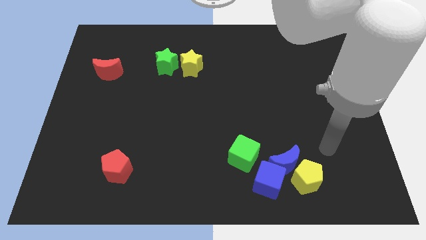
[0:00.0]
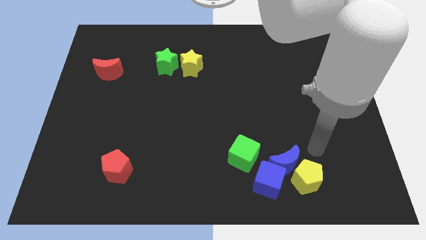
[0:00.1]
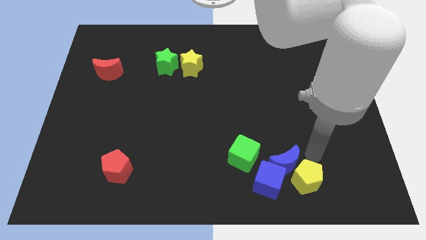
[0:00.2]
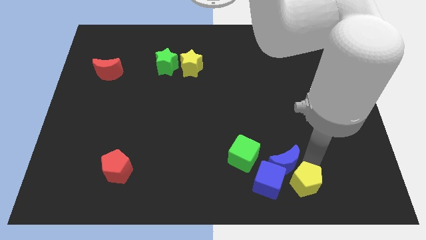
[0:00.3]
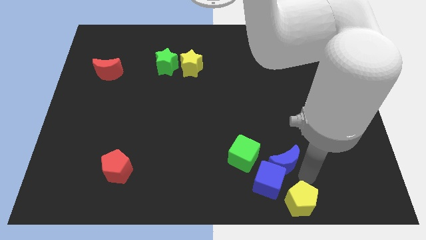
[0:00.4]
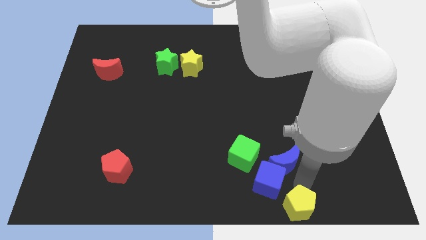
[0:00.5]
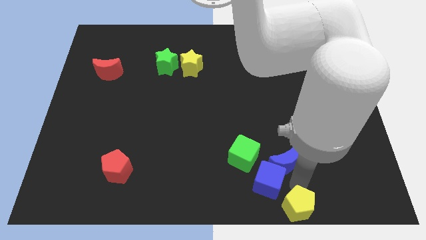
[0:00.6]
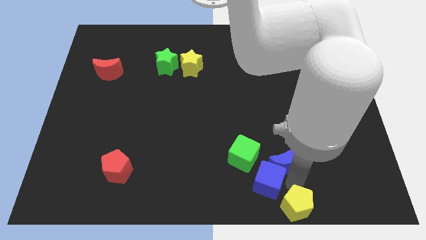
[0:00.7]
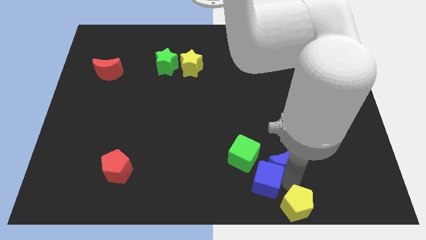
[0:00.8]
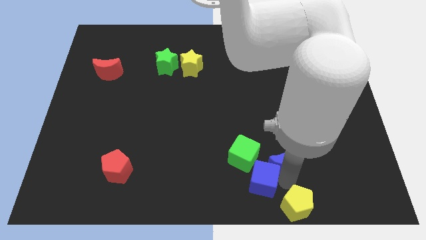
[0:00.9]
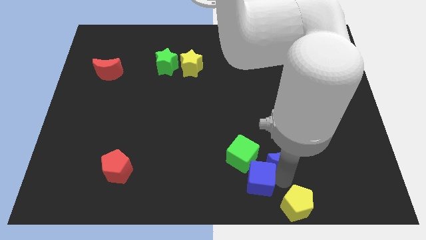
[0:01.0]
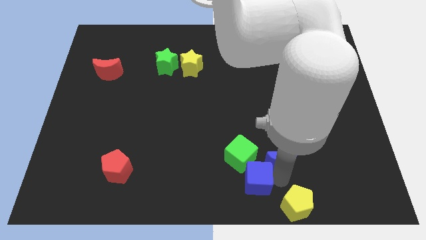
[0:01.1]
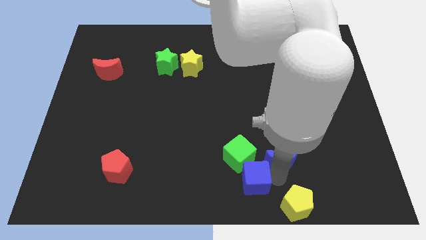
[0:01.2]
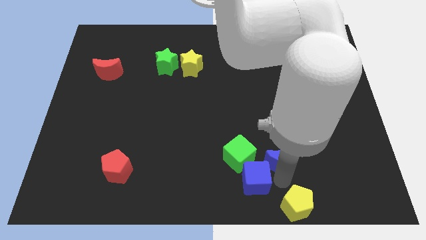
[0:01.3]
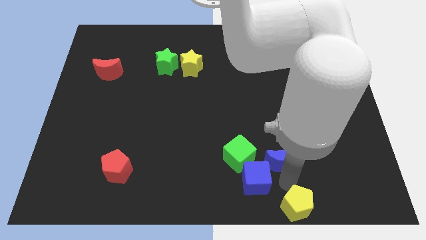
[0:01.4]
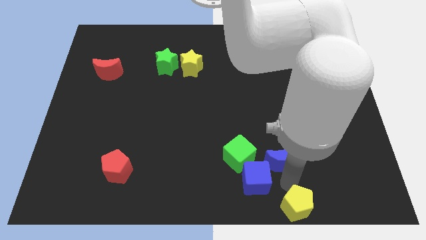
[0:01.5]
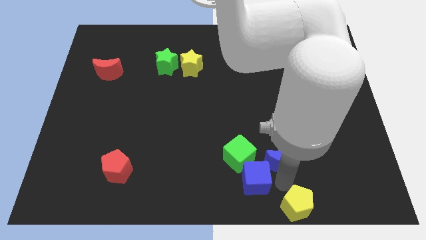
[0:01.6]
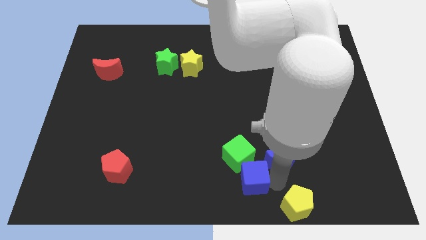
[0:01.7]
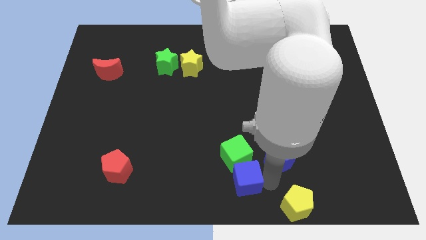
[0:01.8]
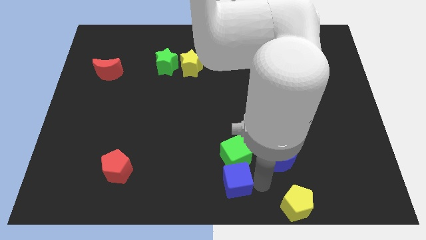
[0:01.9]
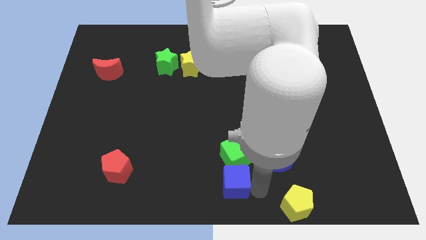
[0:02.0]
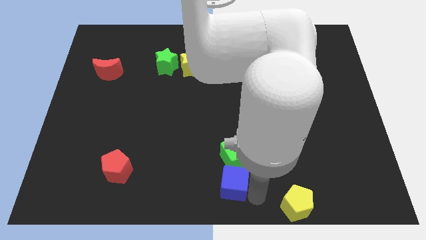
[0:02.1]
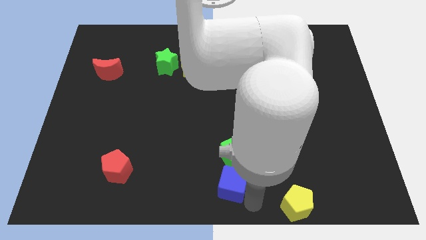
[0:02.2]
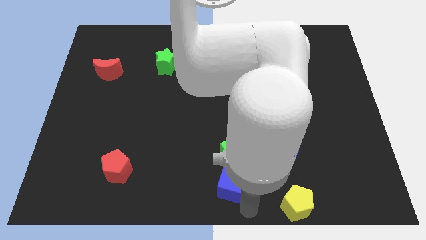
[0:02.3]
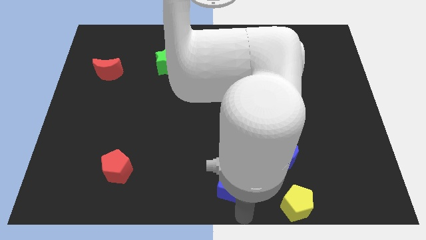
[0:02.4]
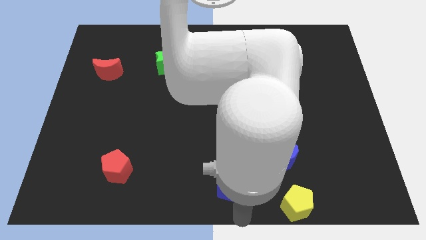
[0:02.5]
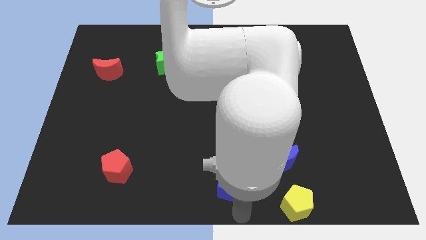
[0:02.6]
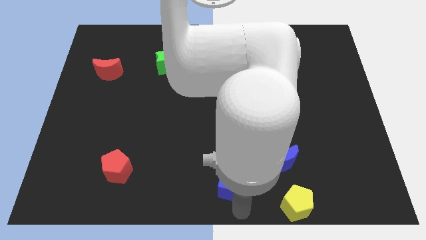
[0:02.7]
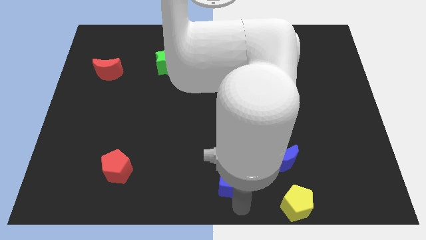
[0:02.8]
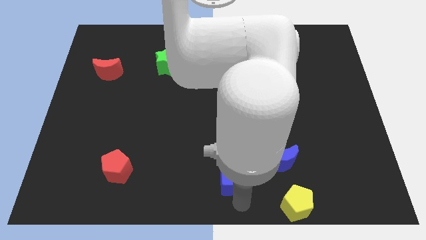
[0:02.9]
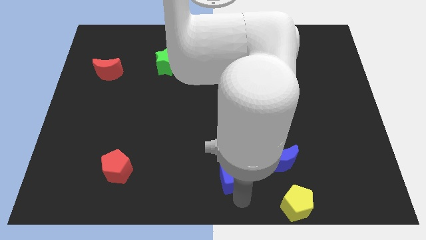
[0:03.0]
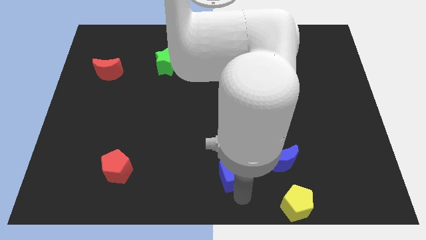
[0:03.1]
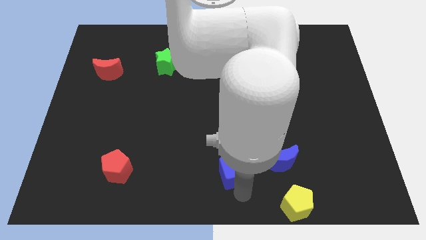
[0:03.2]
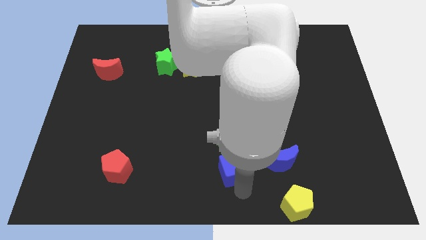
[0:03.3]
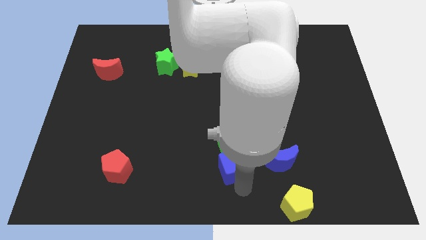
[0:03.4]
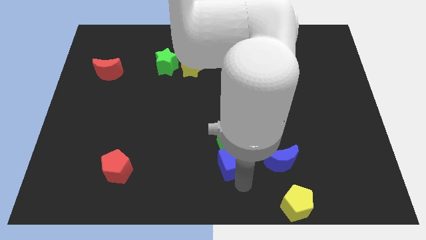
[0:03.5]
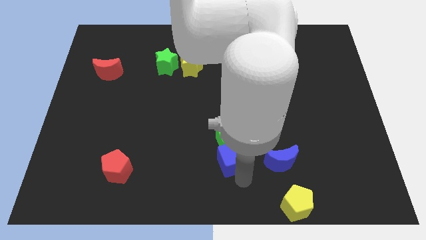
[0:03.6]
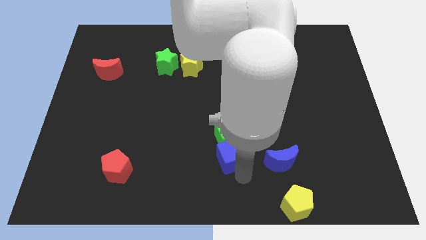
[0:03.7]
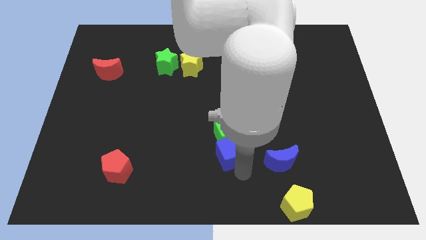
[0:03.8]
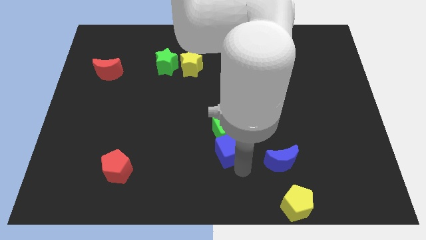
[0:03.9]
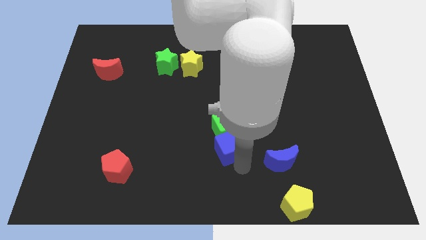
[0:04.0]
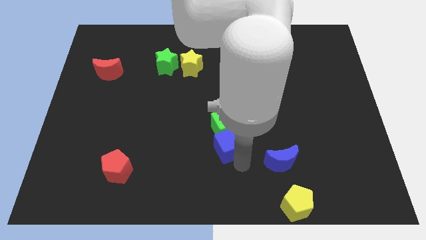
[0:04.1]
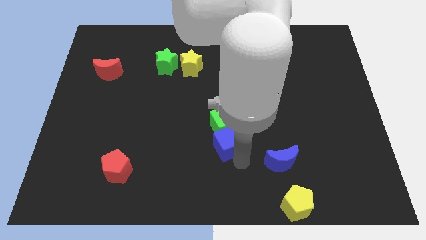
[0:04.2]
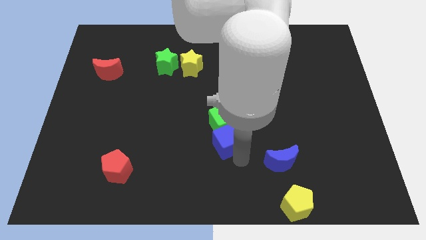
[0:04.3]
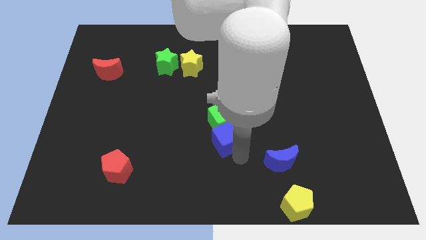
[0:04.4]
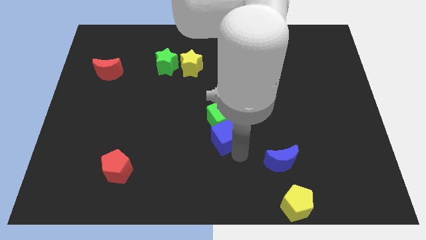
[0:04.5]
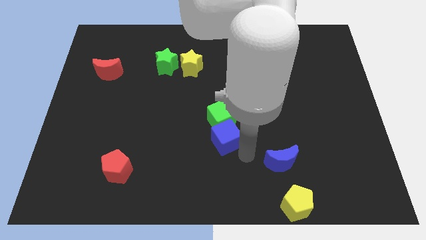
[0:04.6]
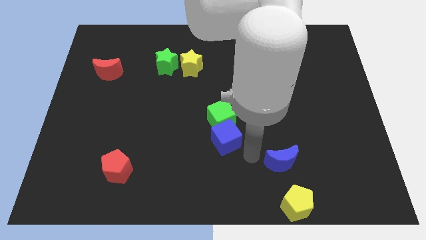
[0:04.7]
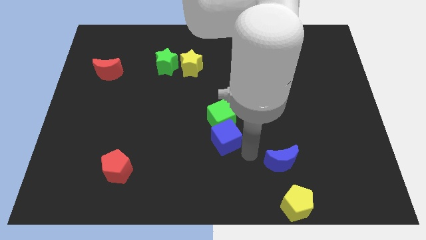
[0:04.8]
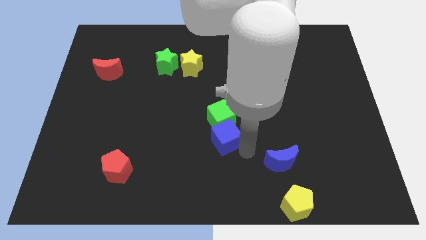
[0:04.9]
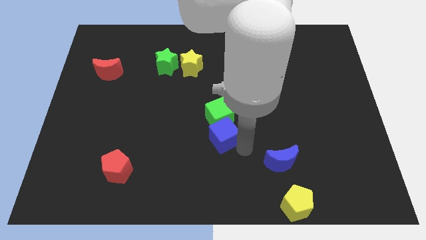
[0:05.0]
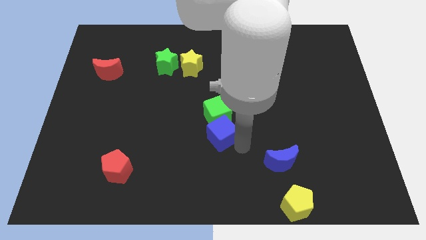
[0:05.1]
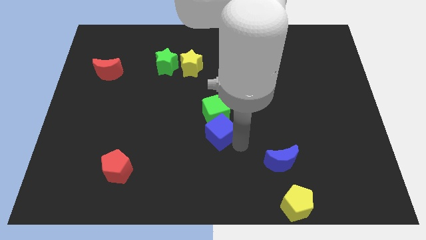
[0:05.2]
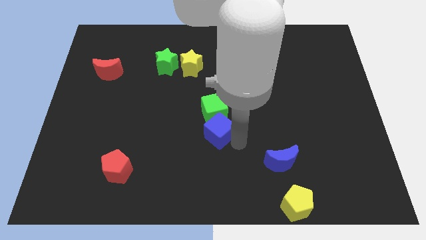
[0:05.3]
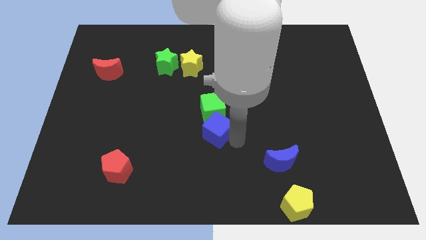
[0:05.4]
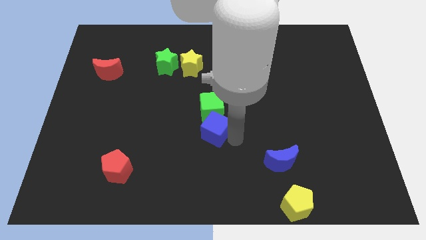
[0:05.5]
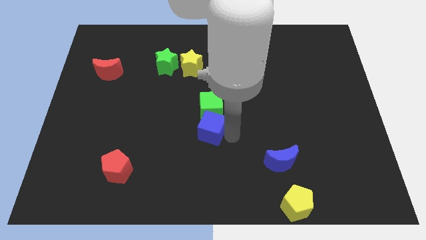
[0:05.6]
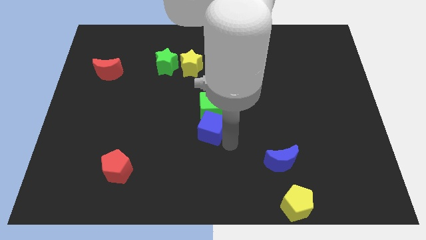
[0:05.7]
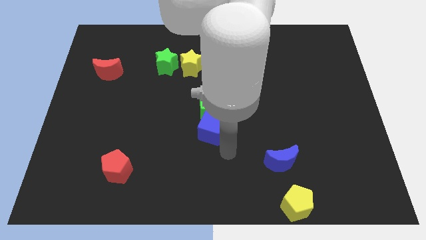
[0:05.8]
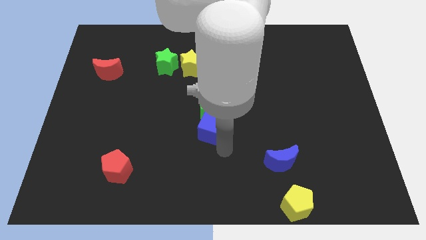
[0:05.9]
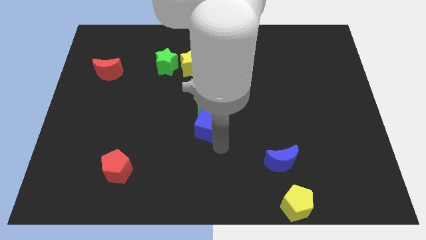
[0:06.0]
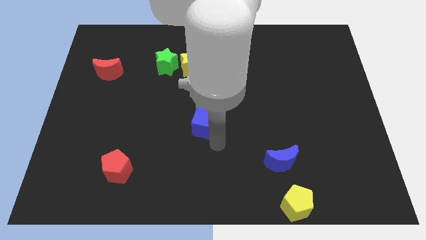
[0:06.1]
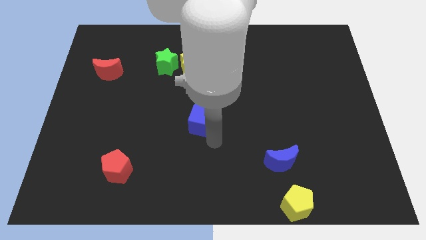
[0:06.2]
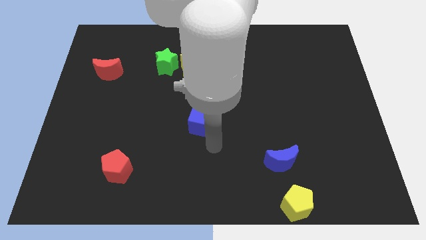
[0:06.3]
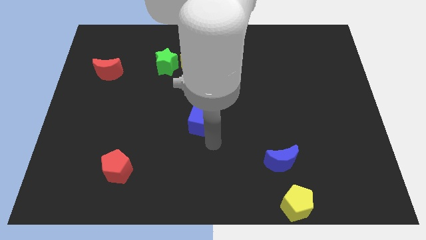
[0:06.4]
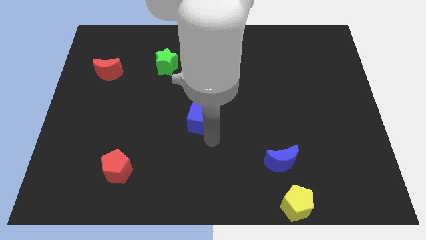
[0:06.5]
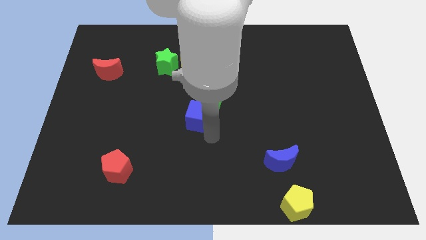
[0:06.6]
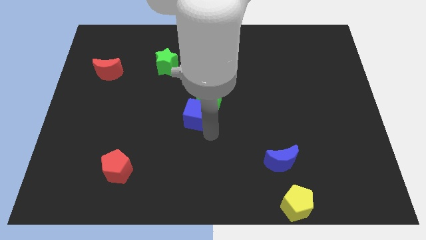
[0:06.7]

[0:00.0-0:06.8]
put the blue cube to the bottom of the yellow star
